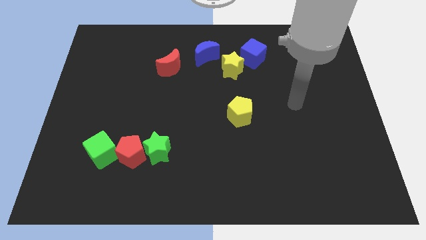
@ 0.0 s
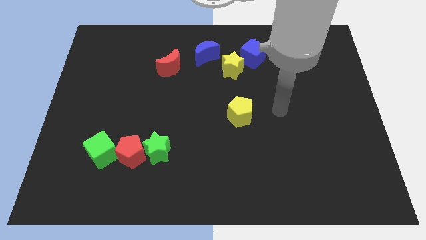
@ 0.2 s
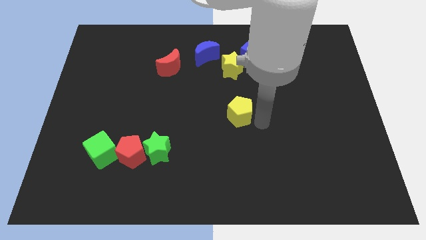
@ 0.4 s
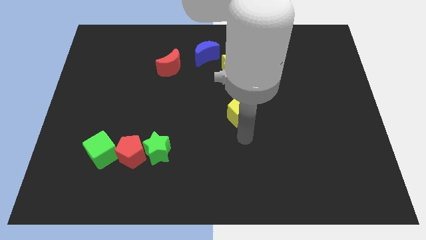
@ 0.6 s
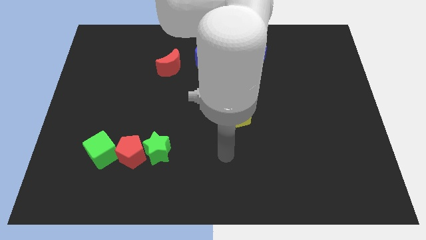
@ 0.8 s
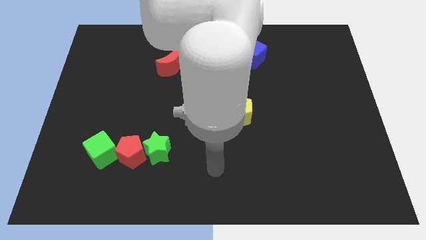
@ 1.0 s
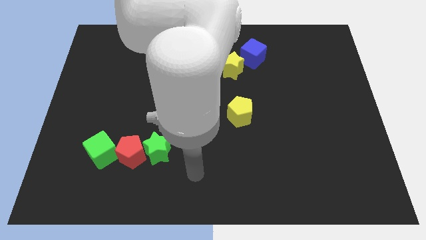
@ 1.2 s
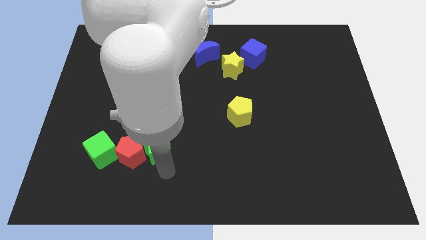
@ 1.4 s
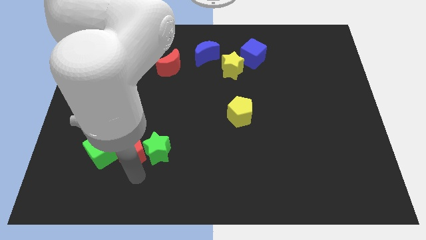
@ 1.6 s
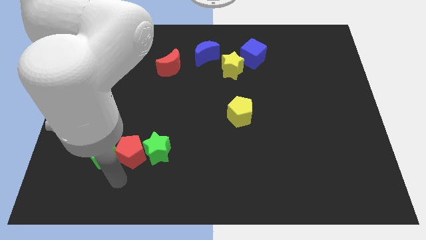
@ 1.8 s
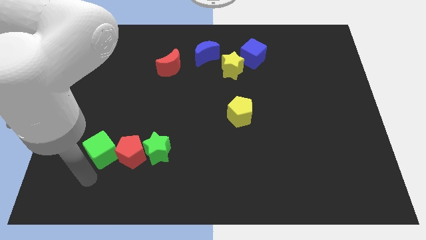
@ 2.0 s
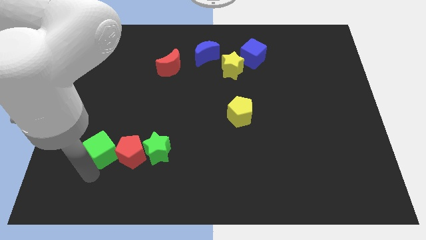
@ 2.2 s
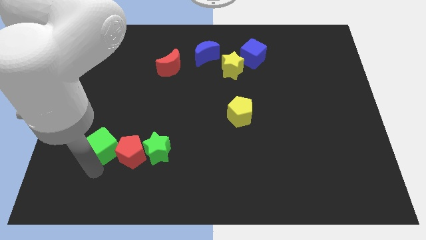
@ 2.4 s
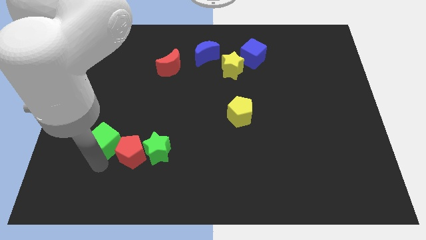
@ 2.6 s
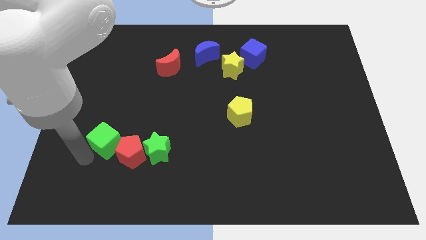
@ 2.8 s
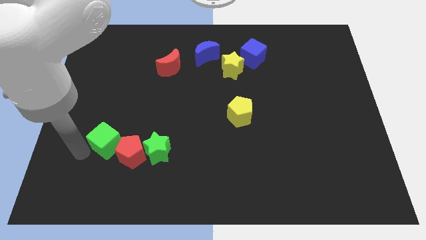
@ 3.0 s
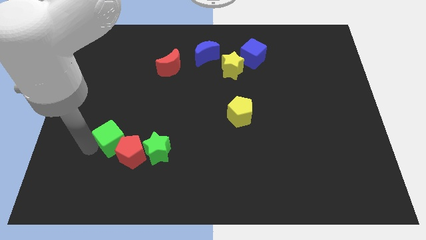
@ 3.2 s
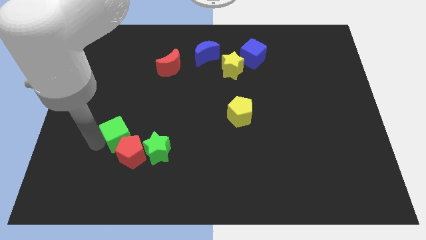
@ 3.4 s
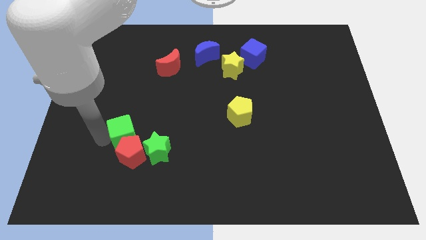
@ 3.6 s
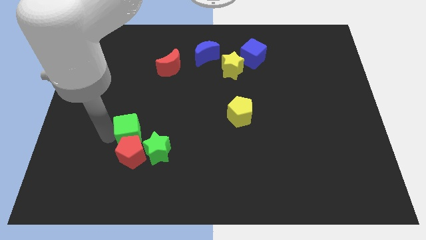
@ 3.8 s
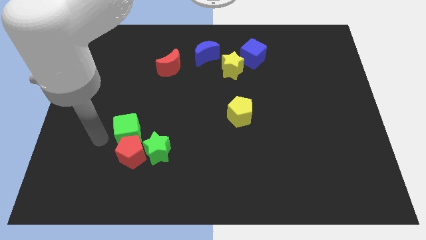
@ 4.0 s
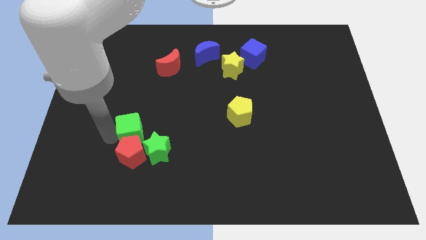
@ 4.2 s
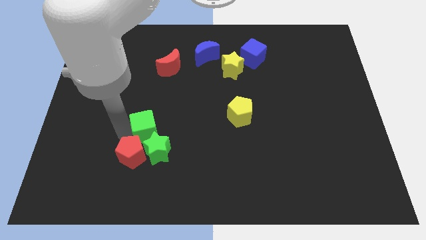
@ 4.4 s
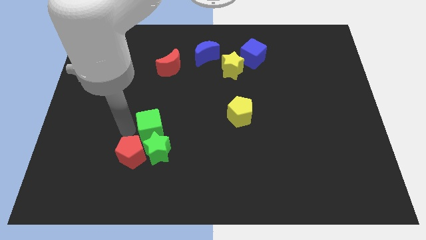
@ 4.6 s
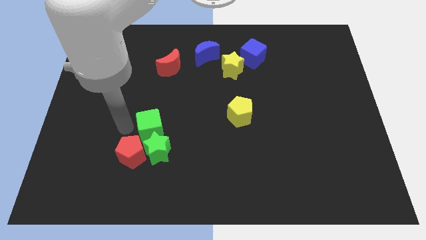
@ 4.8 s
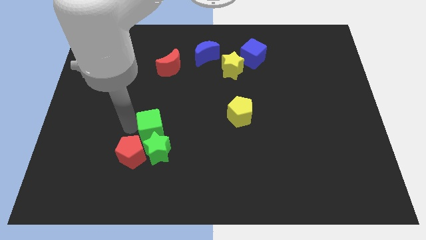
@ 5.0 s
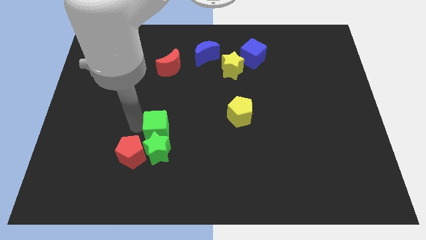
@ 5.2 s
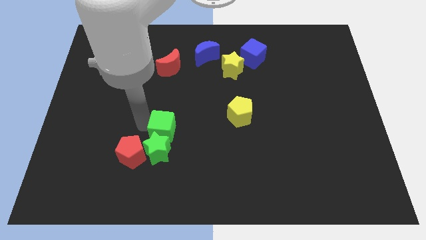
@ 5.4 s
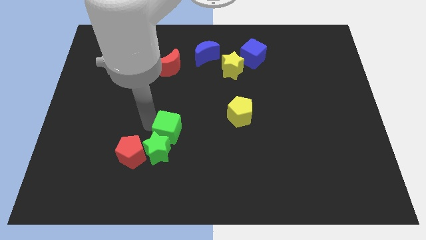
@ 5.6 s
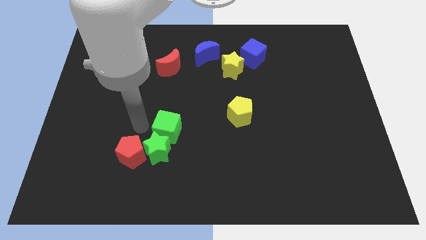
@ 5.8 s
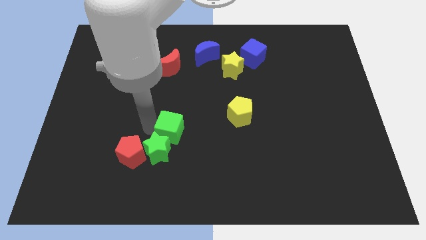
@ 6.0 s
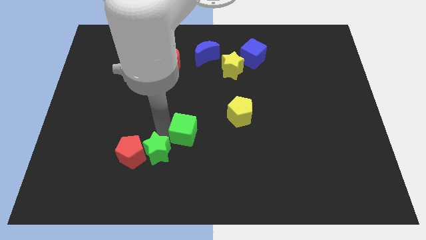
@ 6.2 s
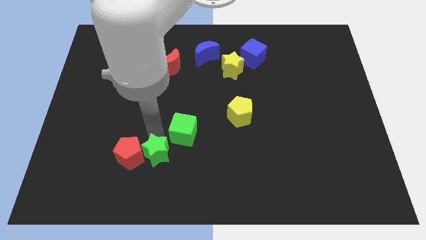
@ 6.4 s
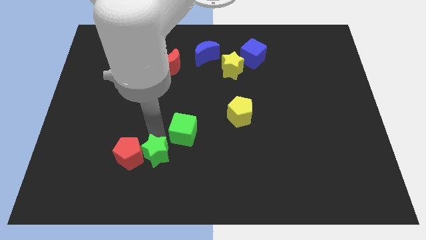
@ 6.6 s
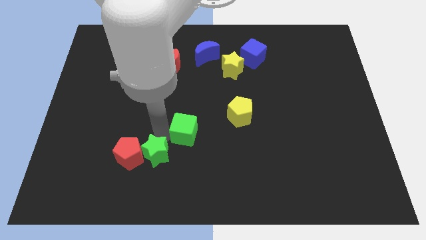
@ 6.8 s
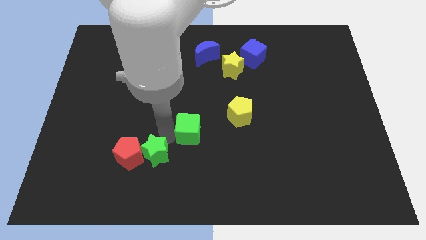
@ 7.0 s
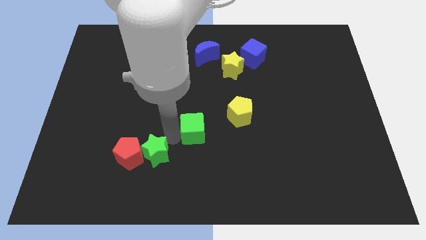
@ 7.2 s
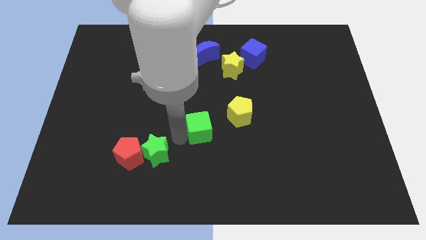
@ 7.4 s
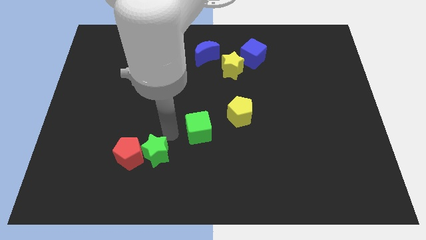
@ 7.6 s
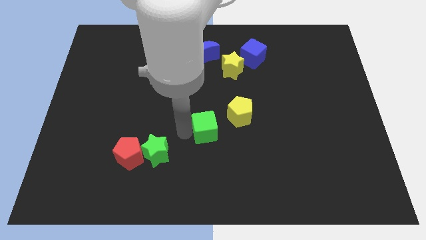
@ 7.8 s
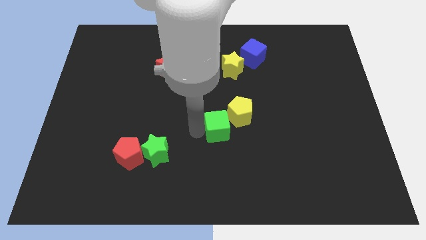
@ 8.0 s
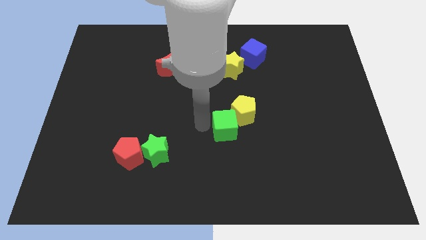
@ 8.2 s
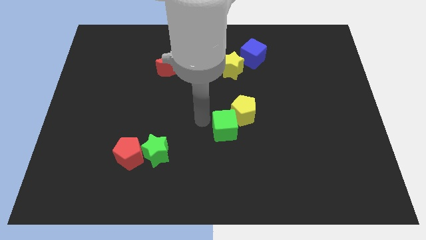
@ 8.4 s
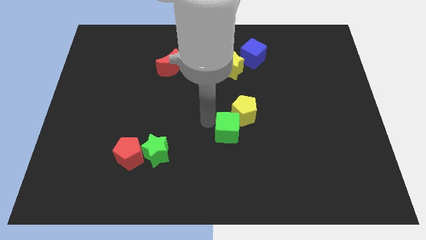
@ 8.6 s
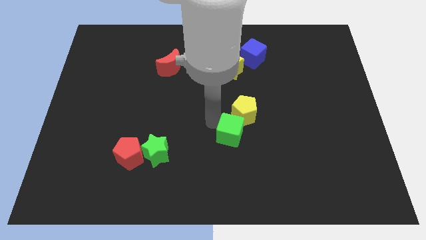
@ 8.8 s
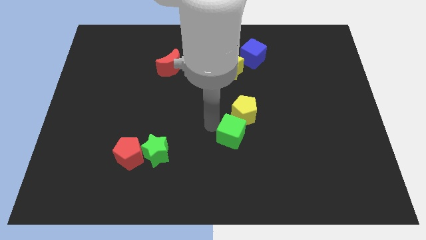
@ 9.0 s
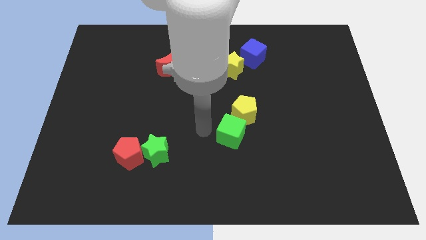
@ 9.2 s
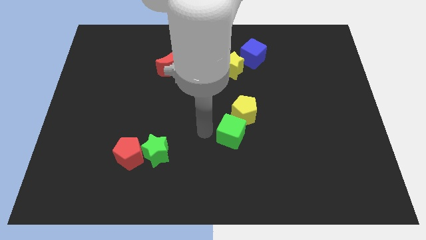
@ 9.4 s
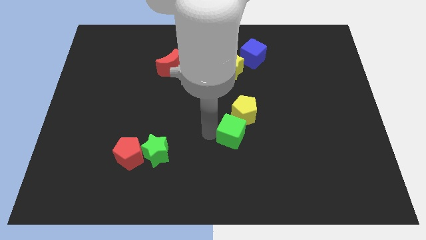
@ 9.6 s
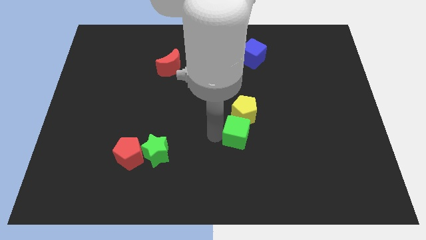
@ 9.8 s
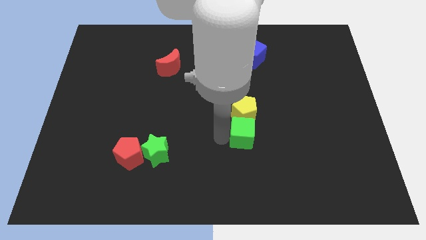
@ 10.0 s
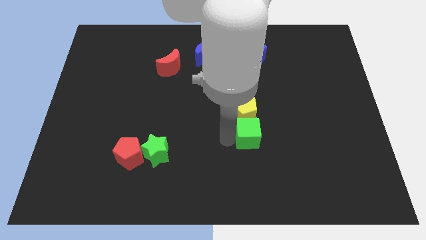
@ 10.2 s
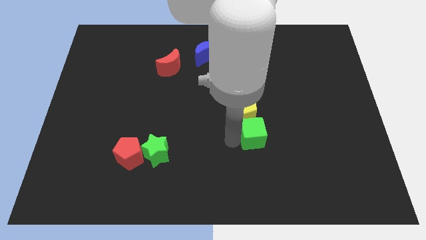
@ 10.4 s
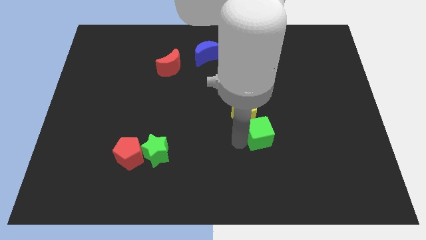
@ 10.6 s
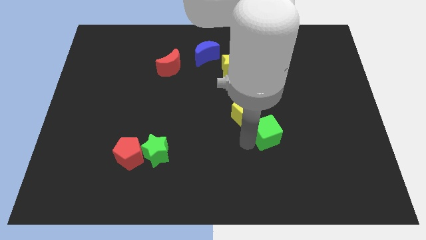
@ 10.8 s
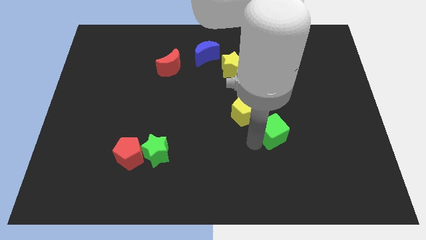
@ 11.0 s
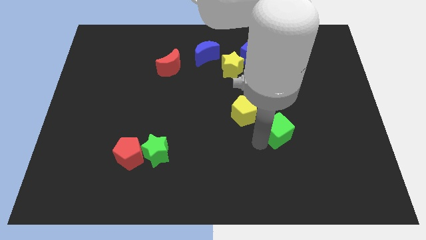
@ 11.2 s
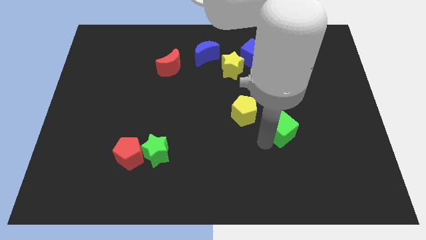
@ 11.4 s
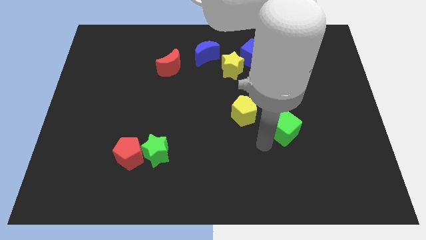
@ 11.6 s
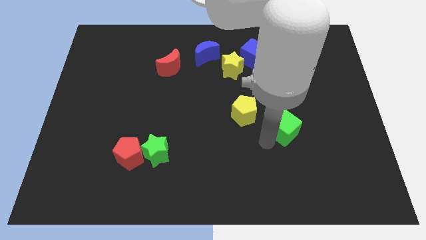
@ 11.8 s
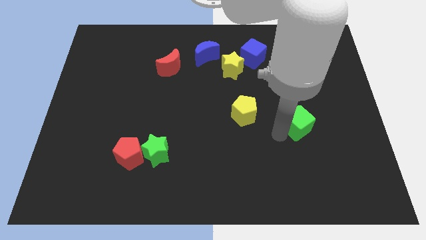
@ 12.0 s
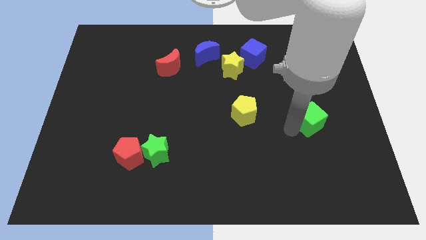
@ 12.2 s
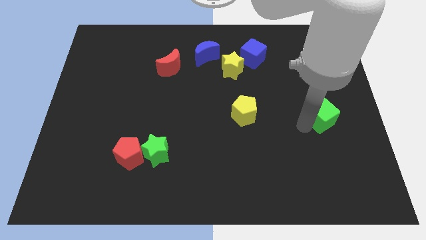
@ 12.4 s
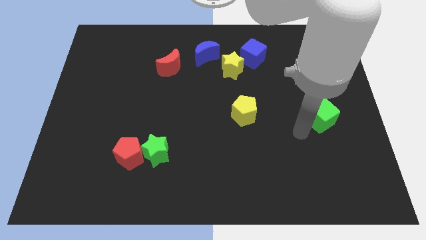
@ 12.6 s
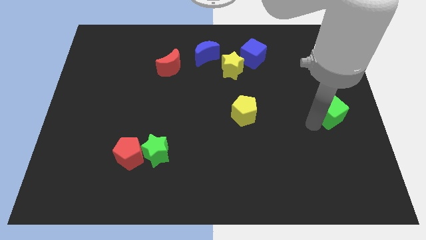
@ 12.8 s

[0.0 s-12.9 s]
push the green cube to the right side
